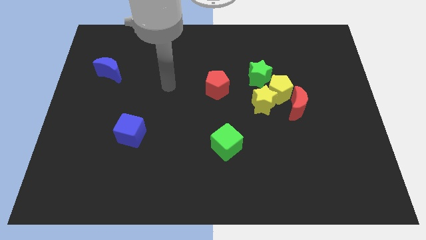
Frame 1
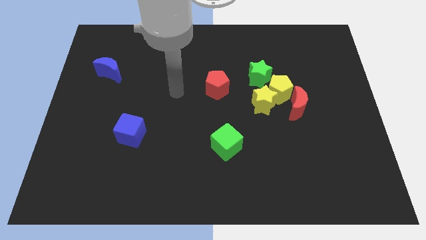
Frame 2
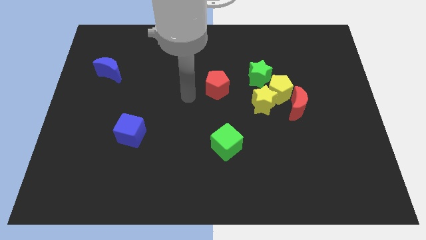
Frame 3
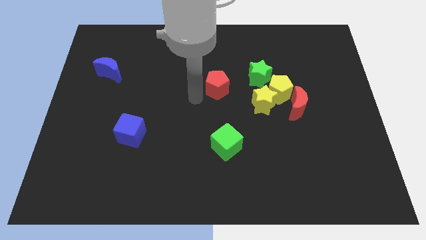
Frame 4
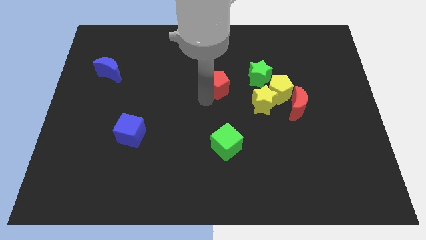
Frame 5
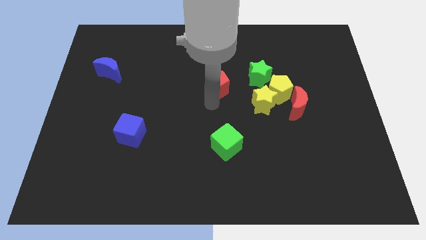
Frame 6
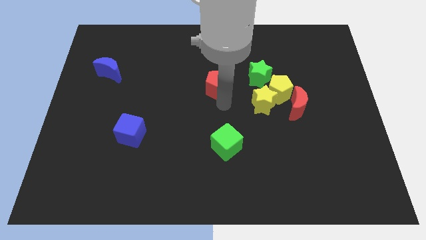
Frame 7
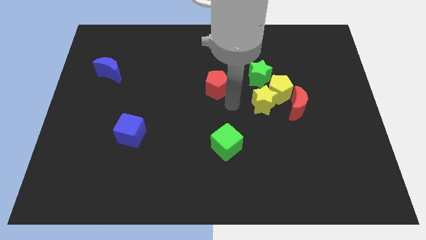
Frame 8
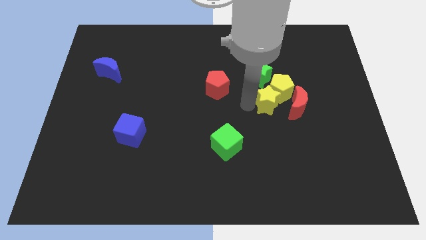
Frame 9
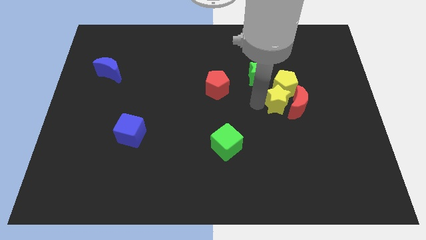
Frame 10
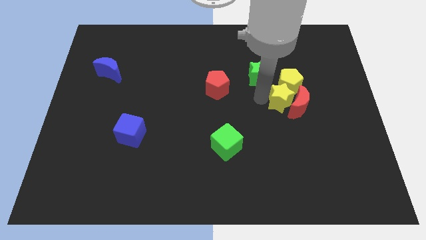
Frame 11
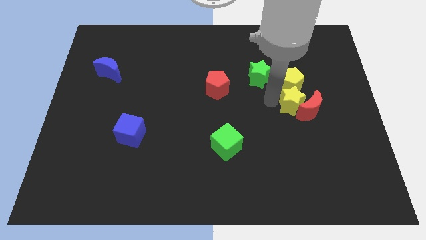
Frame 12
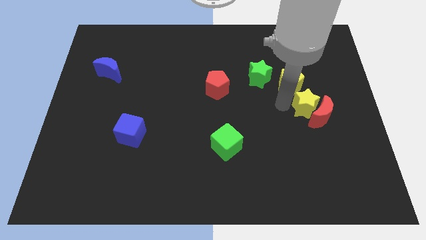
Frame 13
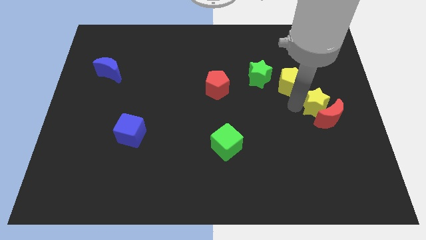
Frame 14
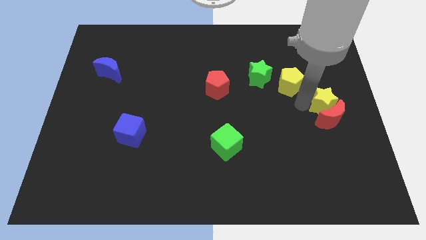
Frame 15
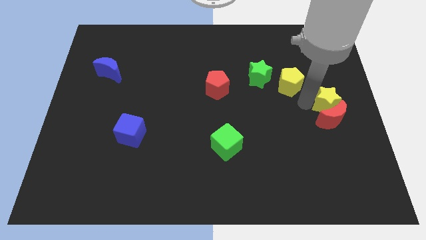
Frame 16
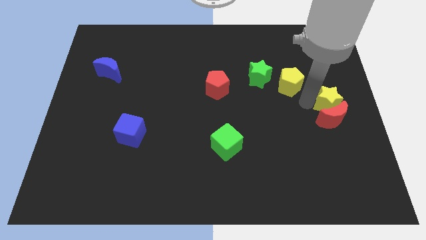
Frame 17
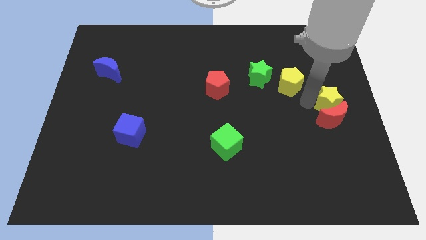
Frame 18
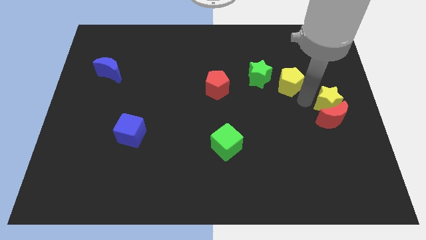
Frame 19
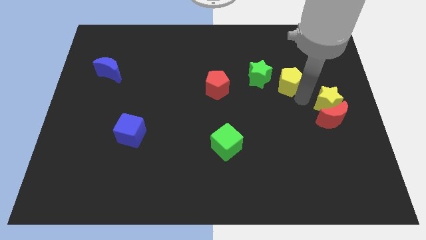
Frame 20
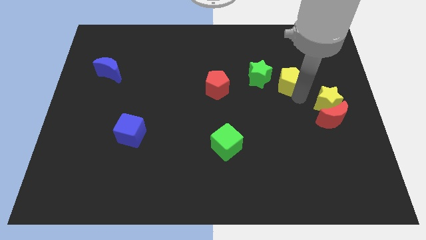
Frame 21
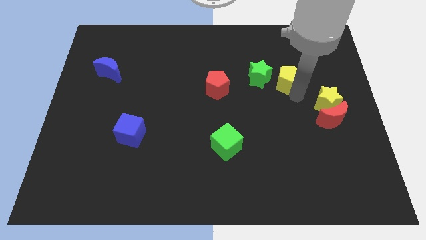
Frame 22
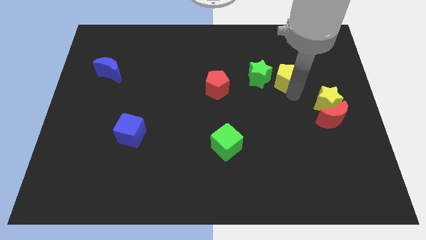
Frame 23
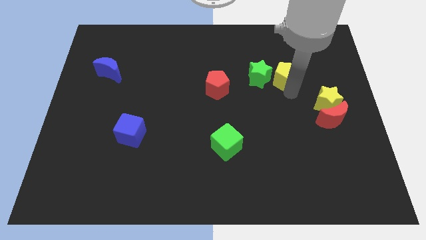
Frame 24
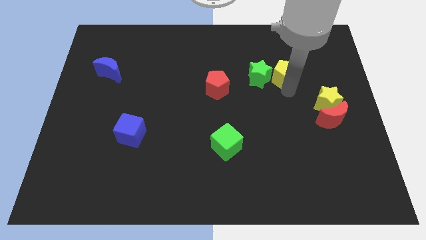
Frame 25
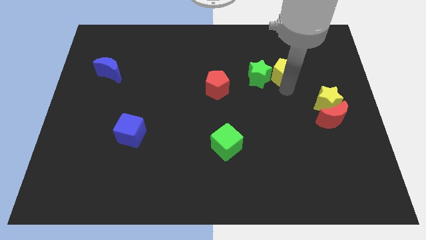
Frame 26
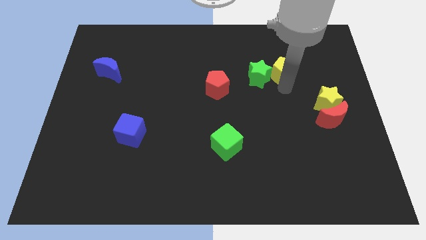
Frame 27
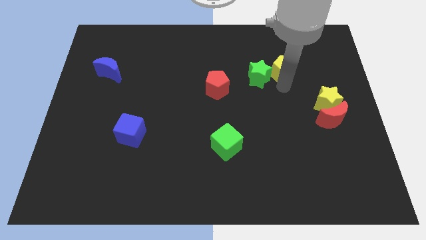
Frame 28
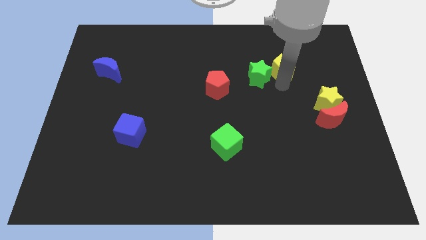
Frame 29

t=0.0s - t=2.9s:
separate the yellow pentagon from the yellow star, red moon, and green star

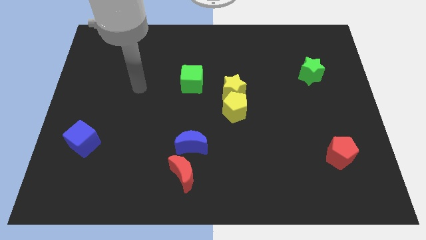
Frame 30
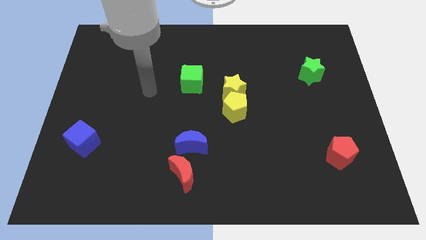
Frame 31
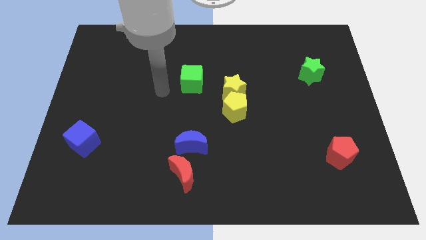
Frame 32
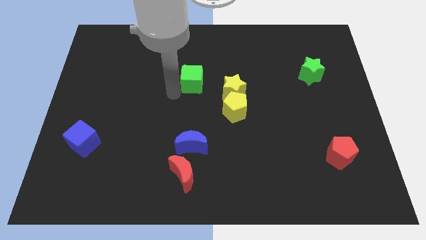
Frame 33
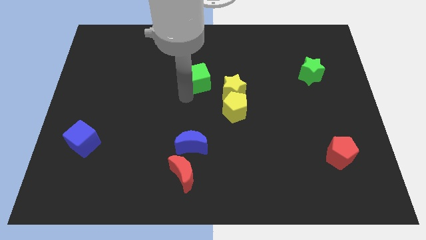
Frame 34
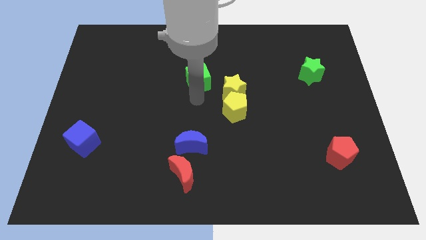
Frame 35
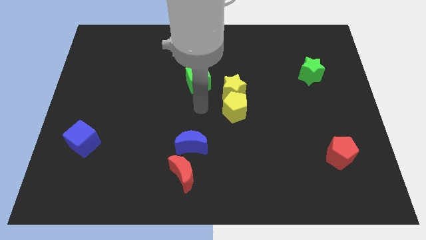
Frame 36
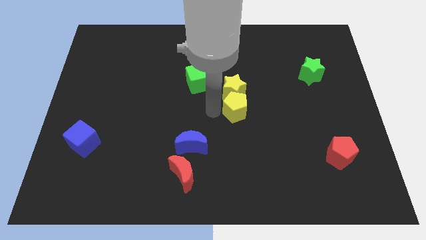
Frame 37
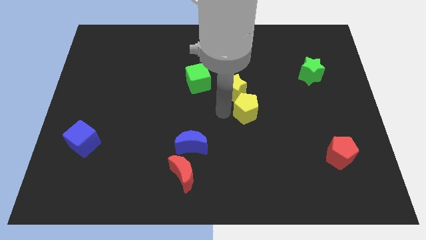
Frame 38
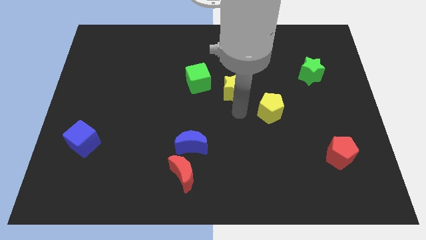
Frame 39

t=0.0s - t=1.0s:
pull the yellow star apart from the yellow pentagon

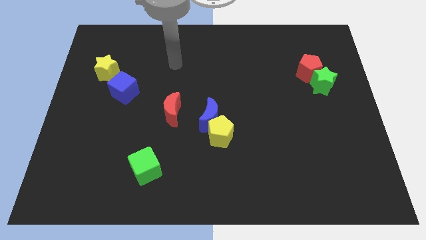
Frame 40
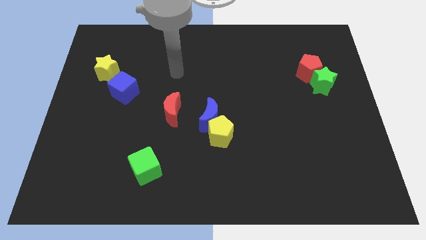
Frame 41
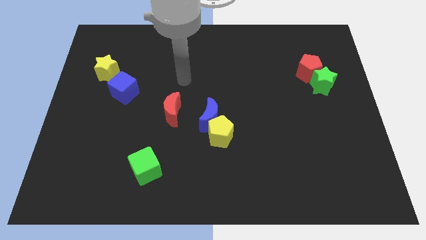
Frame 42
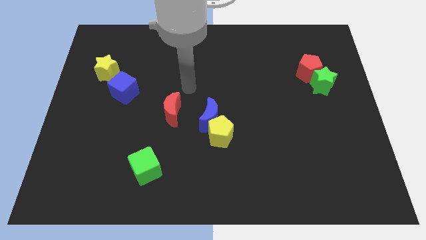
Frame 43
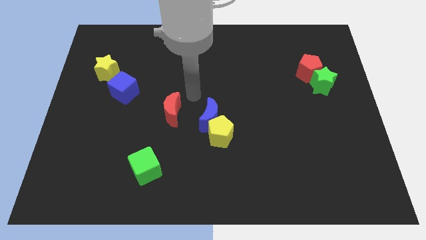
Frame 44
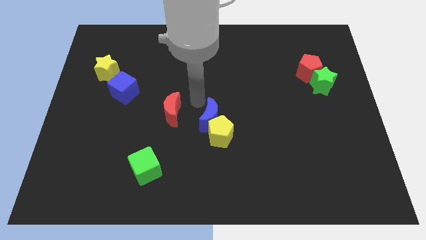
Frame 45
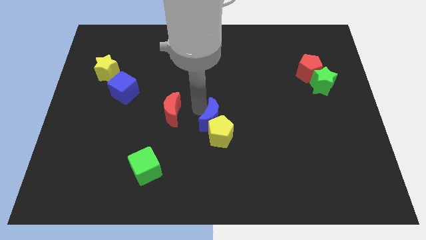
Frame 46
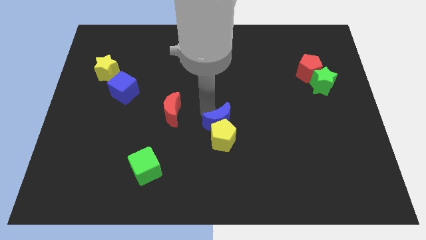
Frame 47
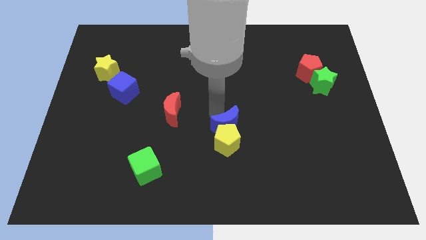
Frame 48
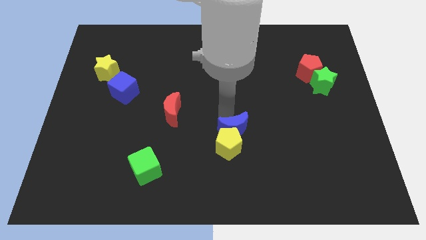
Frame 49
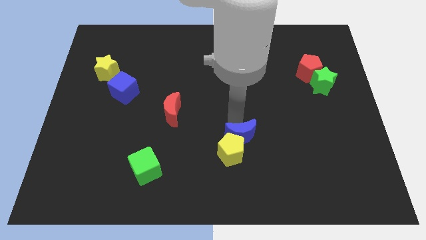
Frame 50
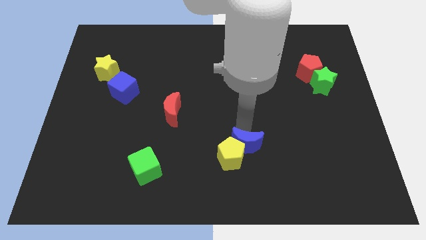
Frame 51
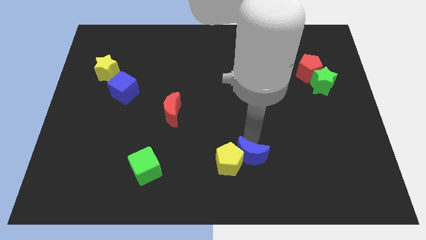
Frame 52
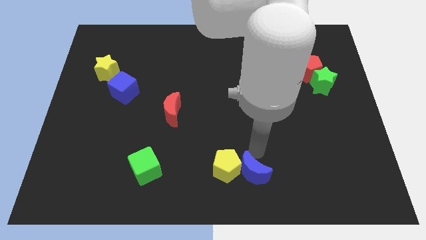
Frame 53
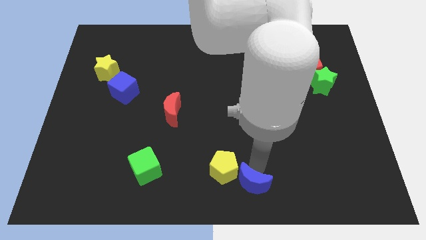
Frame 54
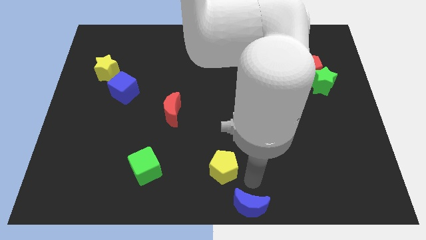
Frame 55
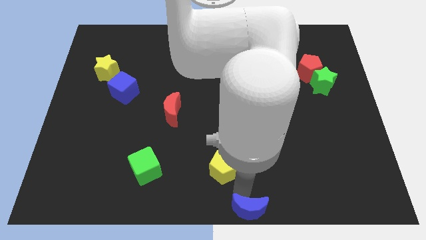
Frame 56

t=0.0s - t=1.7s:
move the yellow pentagon away from the blue moon

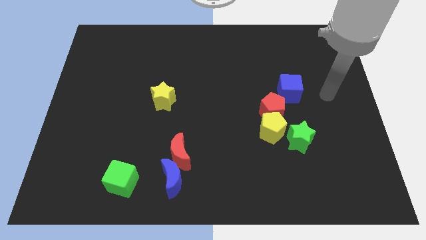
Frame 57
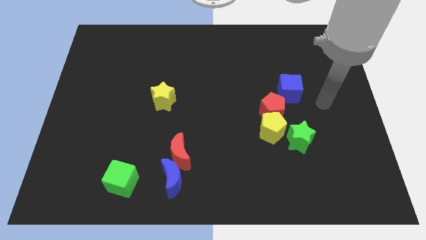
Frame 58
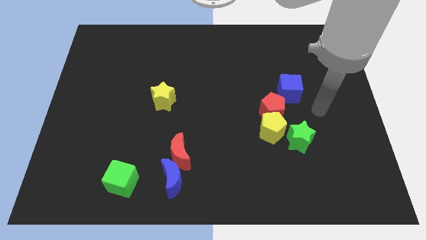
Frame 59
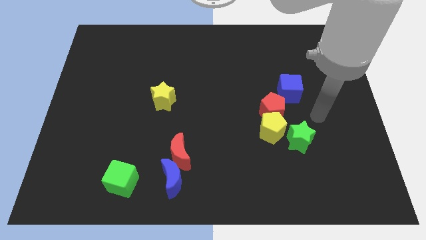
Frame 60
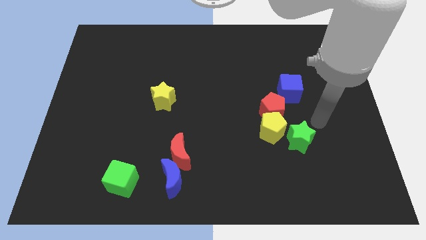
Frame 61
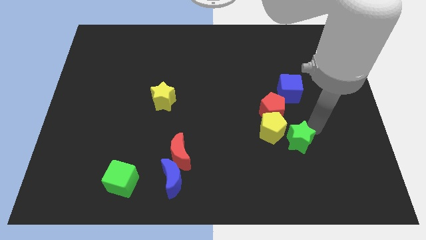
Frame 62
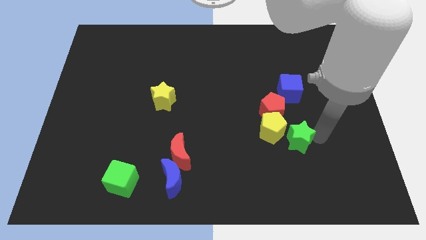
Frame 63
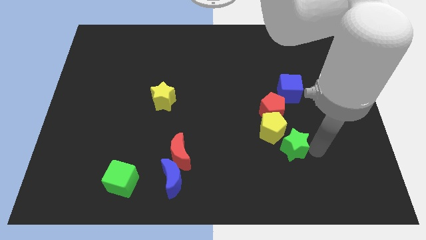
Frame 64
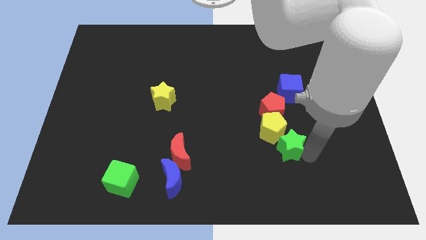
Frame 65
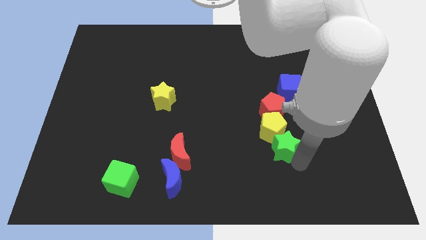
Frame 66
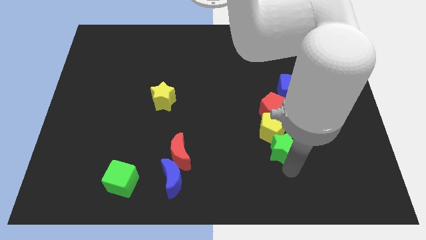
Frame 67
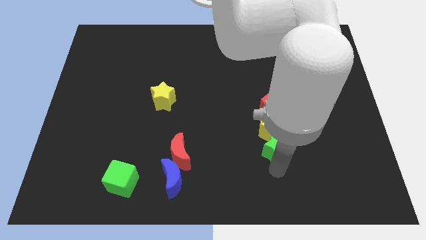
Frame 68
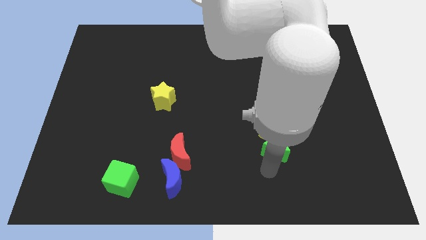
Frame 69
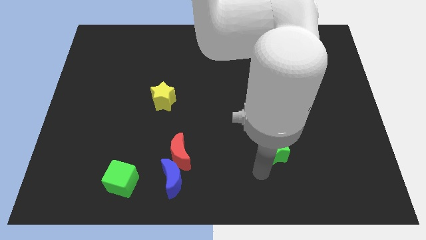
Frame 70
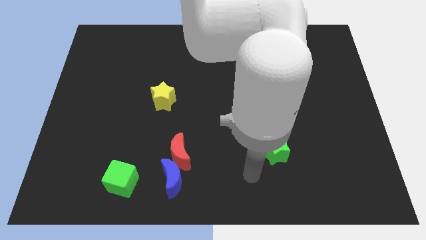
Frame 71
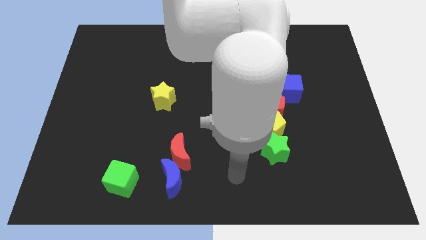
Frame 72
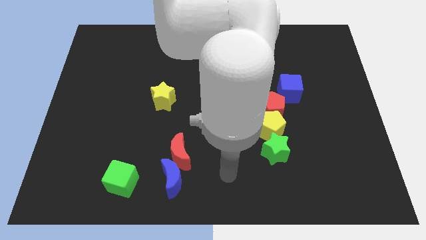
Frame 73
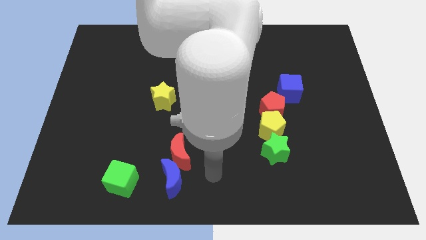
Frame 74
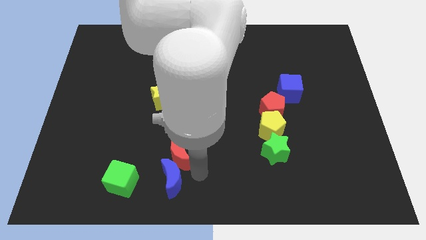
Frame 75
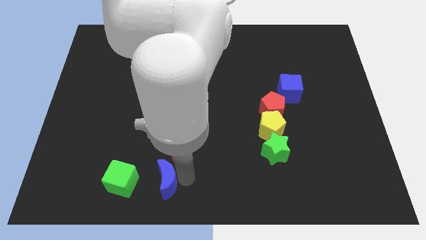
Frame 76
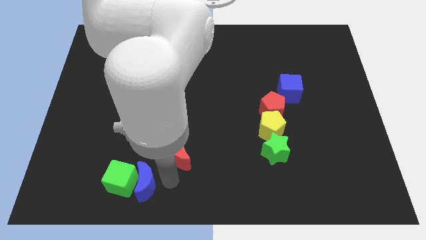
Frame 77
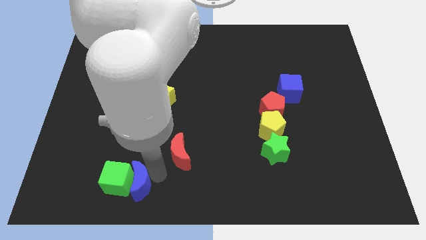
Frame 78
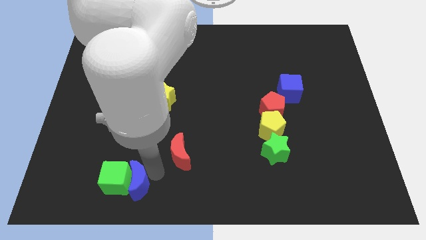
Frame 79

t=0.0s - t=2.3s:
separate the red moon from the blue moon

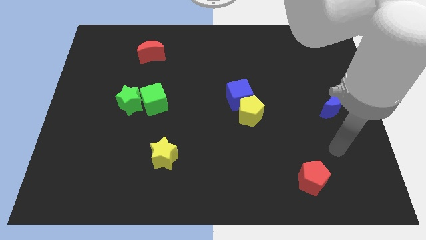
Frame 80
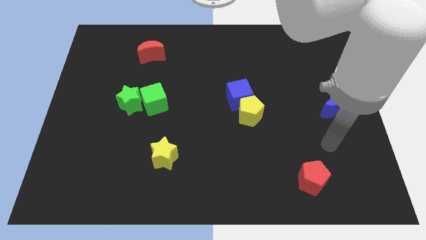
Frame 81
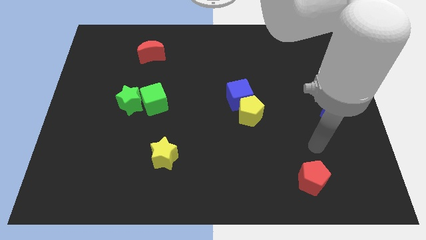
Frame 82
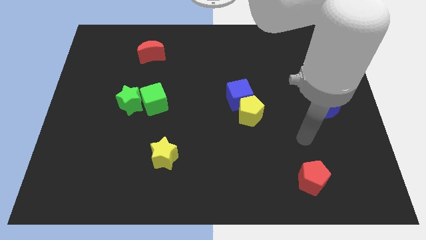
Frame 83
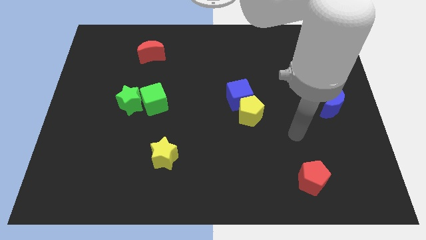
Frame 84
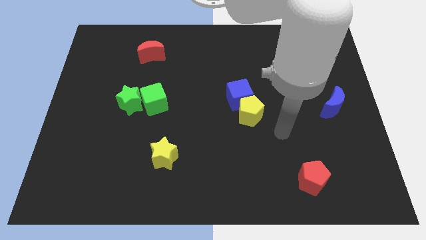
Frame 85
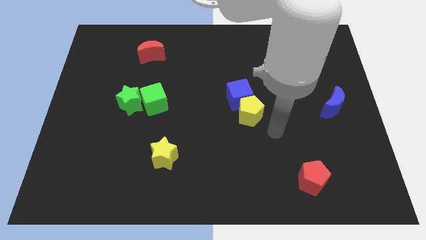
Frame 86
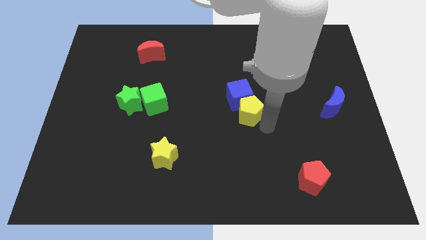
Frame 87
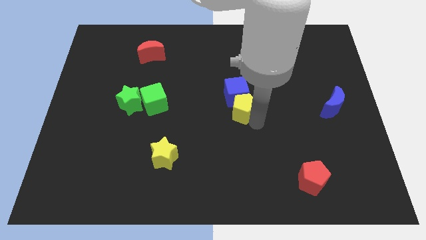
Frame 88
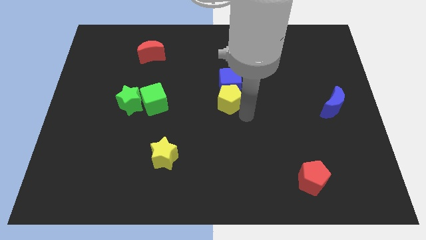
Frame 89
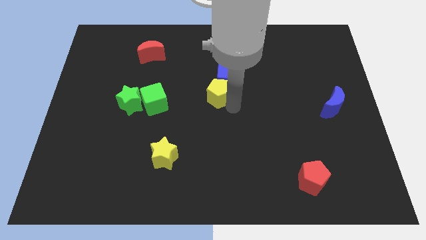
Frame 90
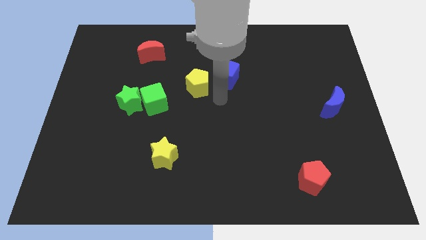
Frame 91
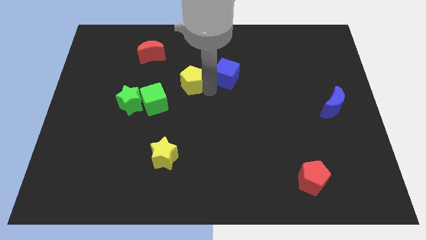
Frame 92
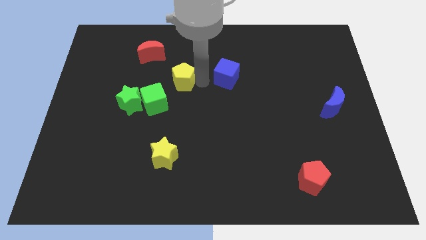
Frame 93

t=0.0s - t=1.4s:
pull the blue cube apart from the yellow pentagon
